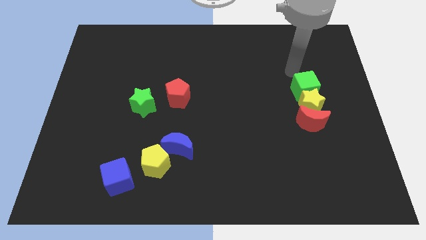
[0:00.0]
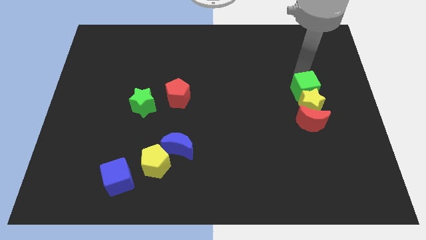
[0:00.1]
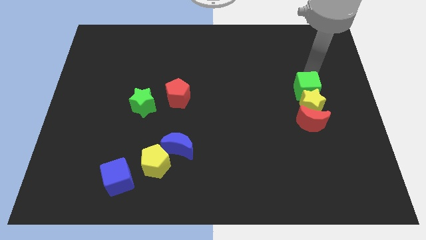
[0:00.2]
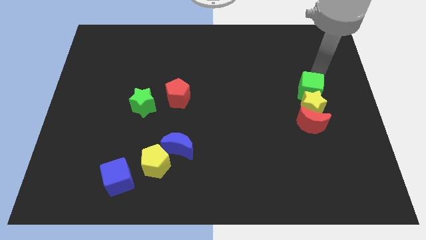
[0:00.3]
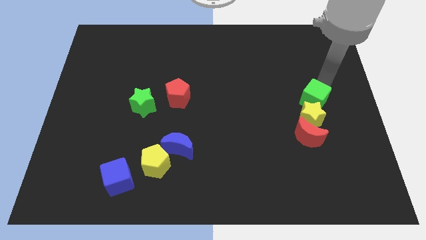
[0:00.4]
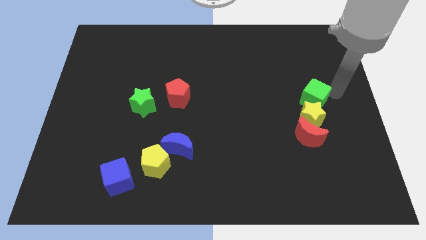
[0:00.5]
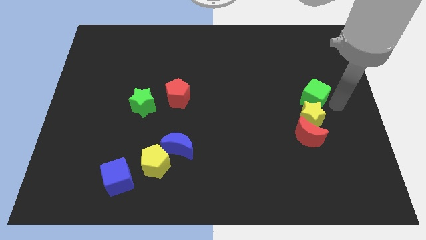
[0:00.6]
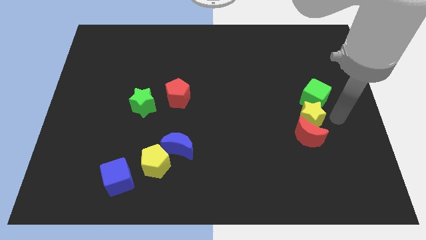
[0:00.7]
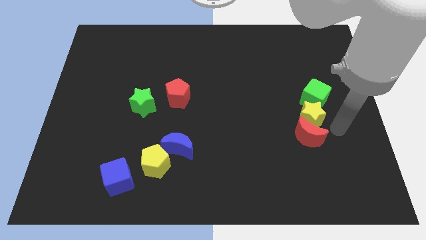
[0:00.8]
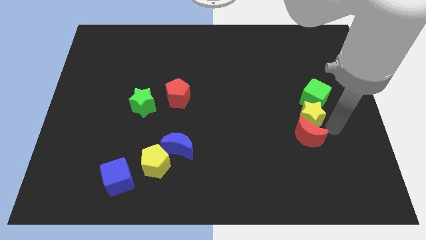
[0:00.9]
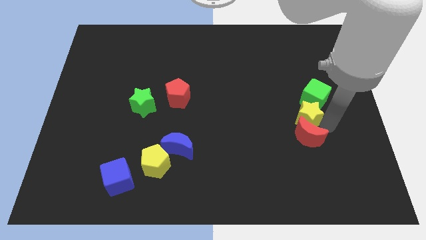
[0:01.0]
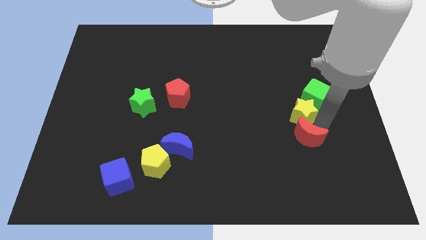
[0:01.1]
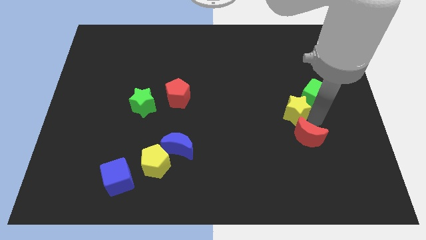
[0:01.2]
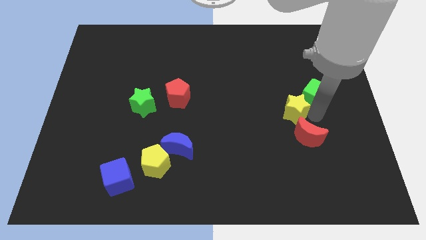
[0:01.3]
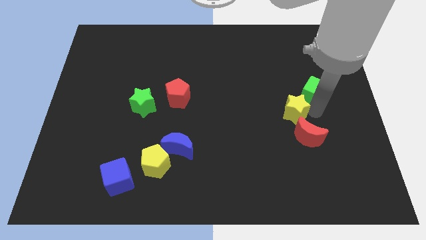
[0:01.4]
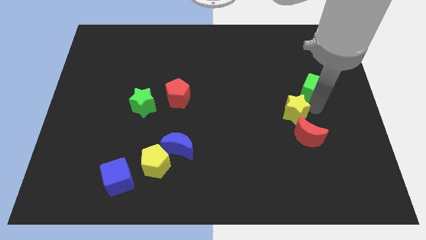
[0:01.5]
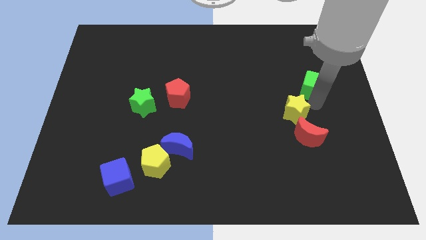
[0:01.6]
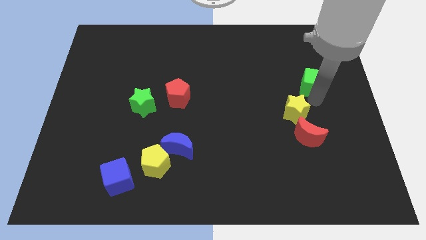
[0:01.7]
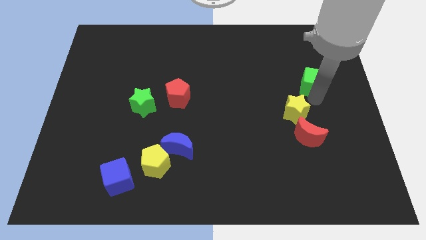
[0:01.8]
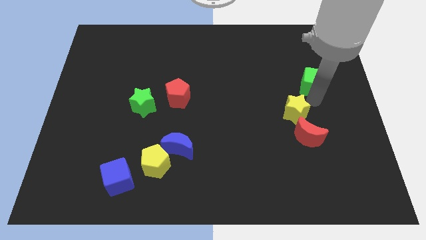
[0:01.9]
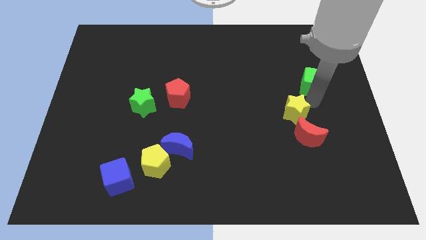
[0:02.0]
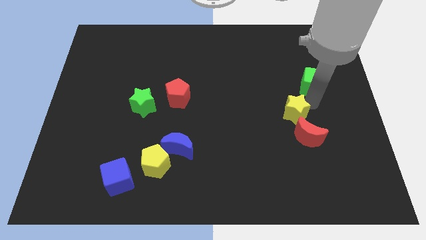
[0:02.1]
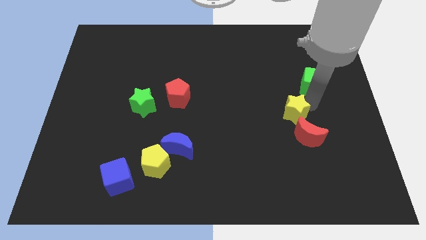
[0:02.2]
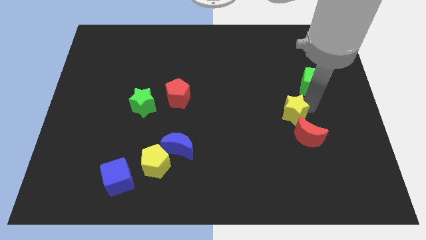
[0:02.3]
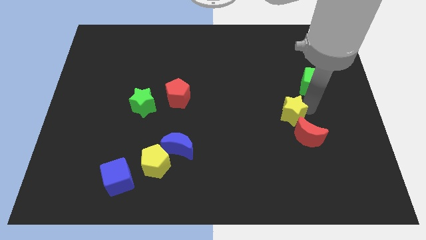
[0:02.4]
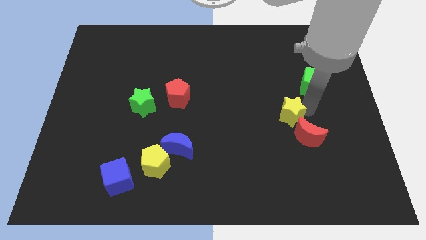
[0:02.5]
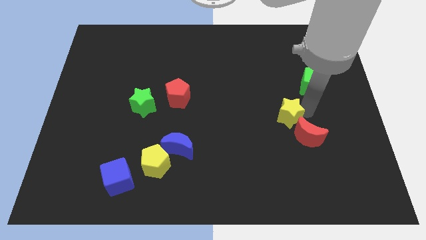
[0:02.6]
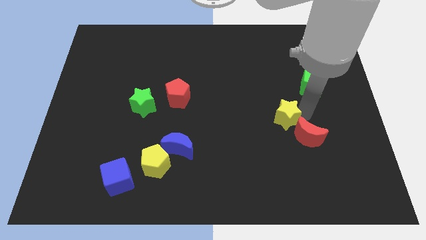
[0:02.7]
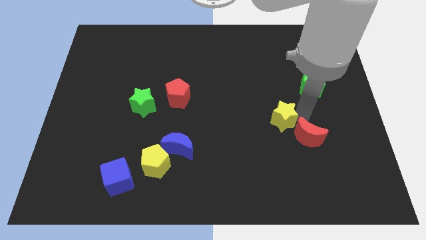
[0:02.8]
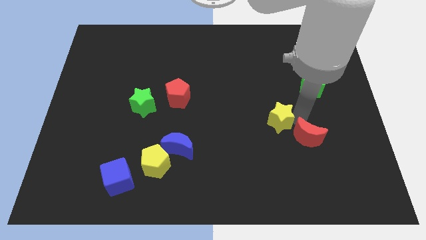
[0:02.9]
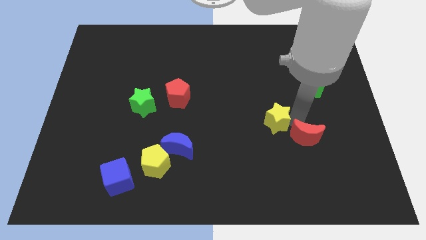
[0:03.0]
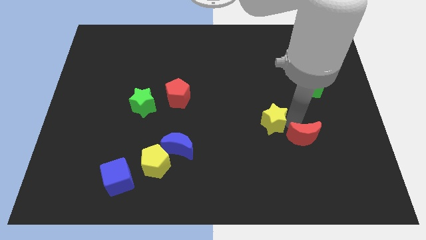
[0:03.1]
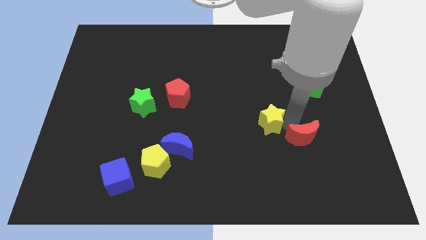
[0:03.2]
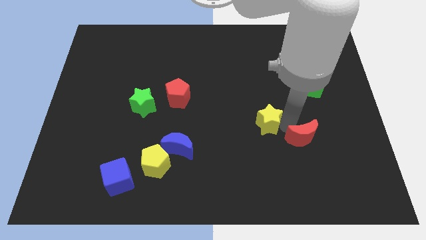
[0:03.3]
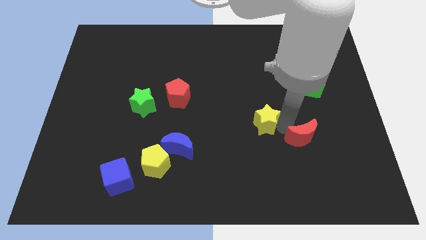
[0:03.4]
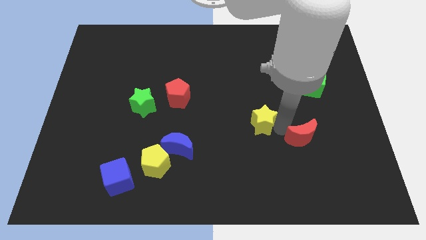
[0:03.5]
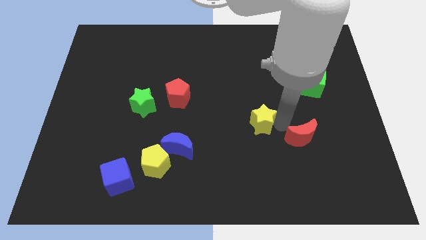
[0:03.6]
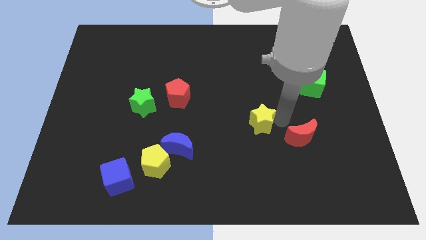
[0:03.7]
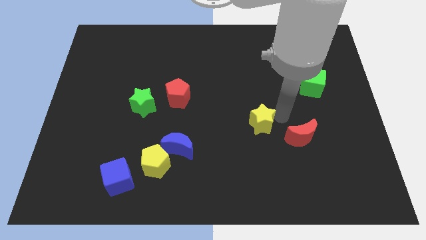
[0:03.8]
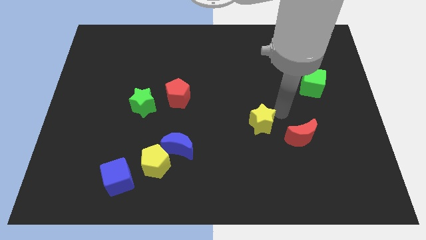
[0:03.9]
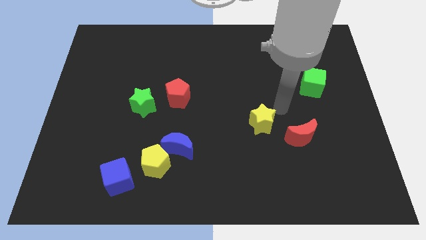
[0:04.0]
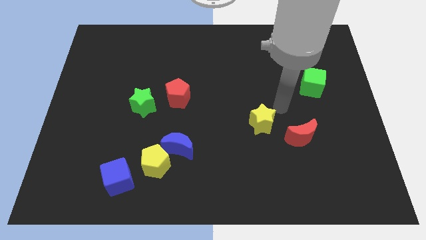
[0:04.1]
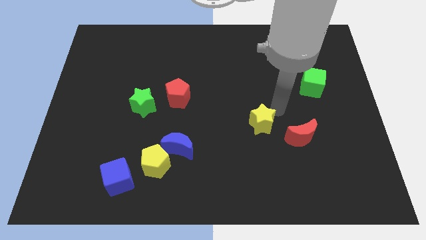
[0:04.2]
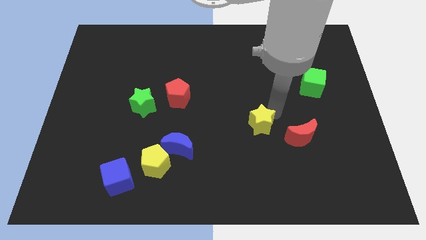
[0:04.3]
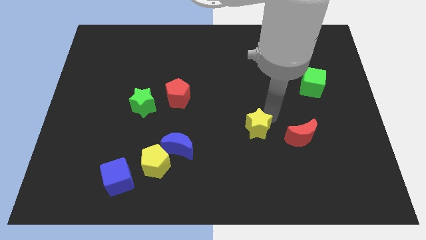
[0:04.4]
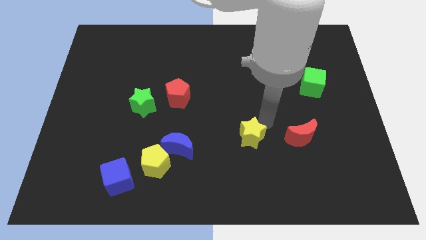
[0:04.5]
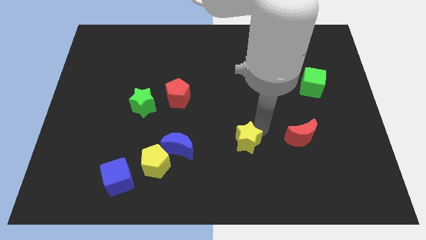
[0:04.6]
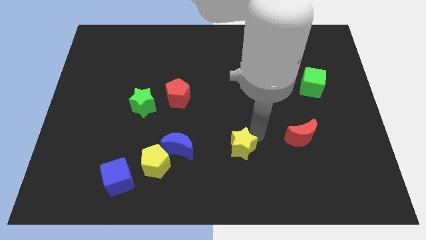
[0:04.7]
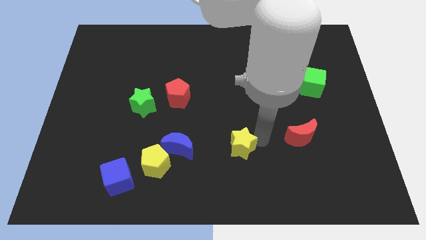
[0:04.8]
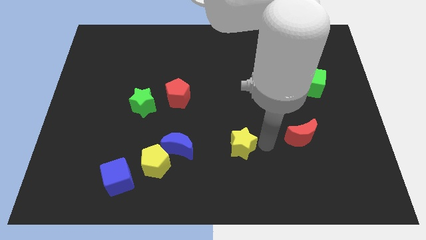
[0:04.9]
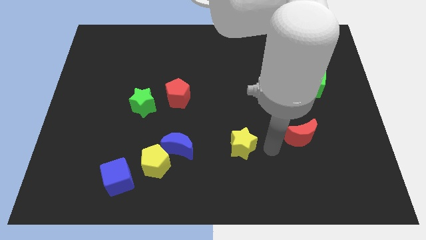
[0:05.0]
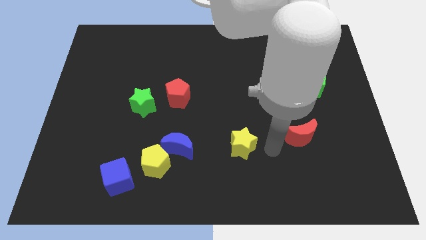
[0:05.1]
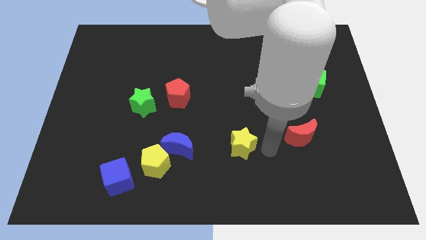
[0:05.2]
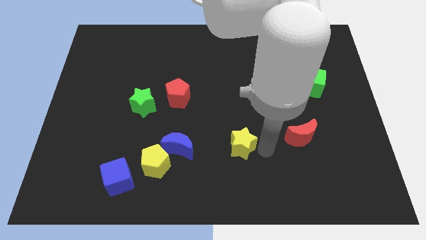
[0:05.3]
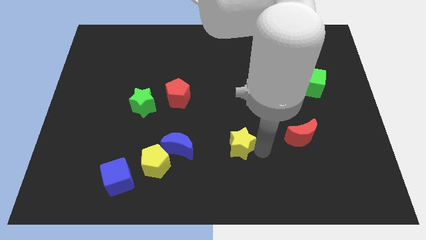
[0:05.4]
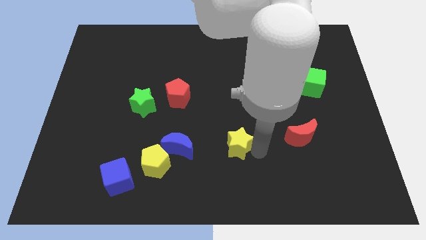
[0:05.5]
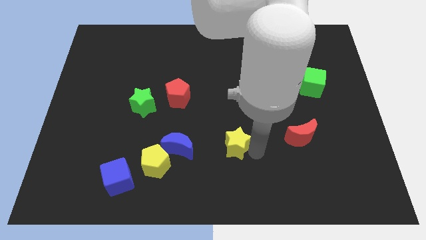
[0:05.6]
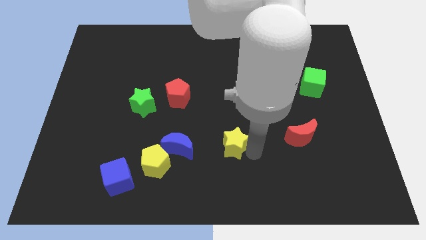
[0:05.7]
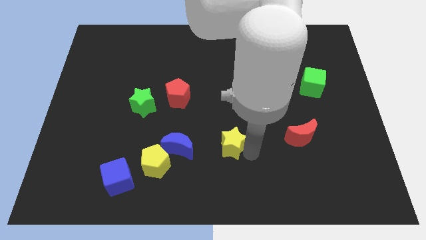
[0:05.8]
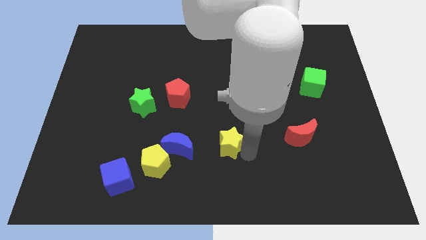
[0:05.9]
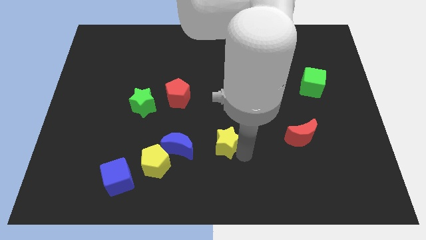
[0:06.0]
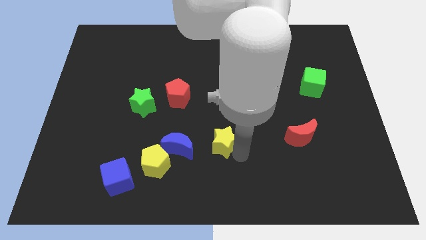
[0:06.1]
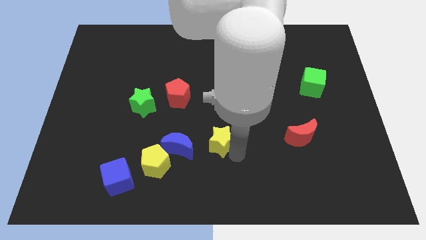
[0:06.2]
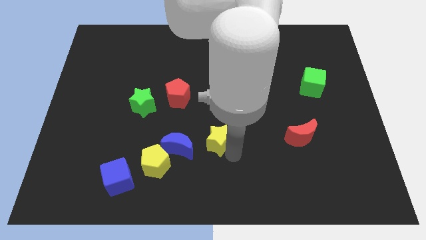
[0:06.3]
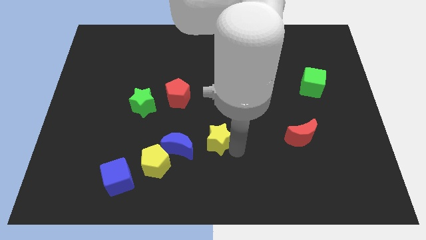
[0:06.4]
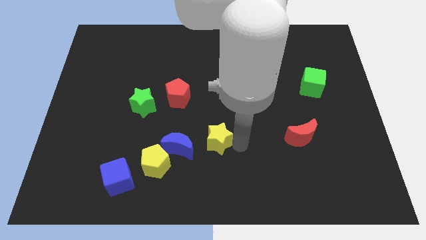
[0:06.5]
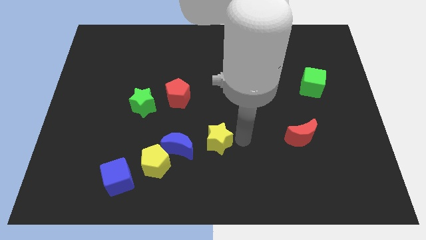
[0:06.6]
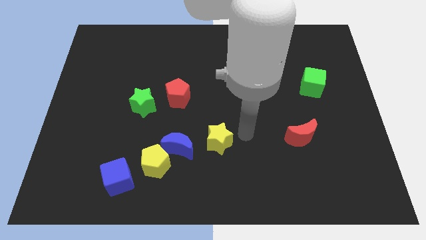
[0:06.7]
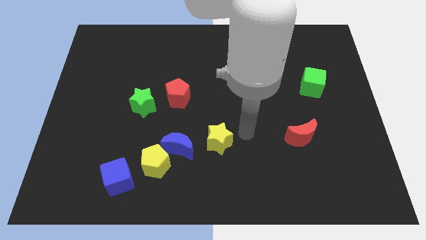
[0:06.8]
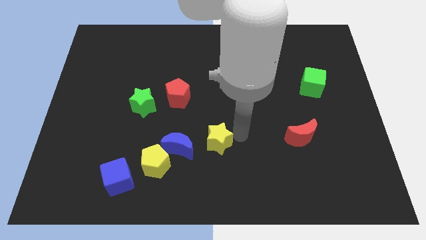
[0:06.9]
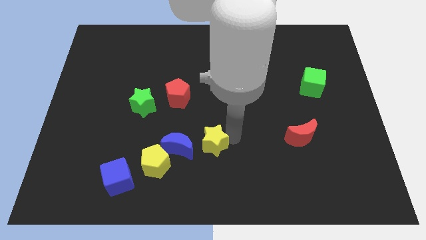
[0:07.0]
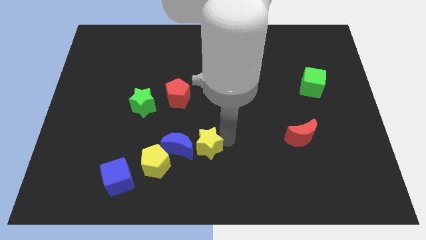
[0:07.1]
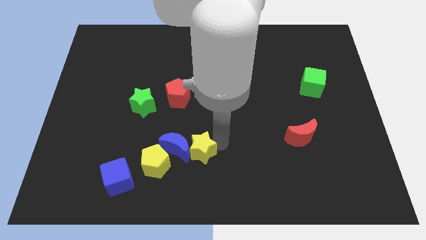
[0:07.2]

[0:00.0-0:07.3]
put the yellow star towards the blue moon
